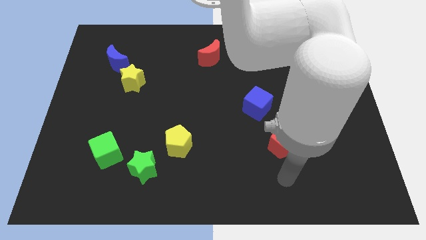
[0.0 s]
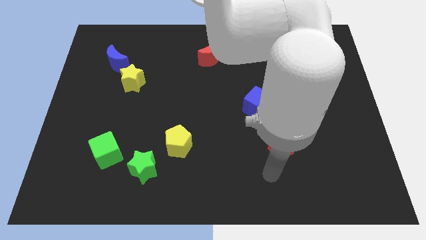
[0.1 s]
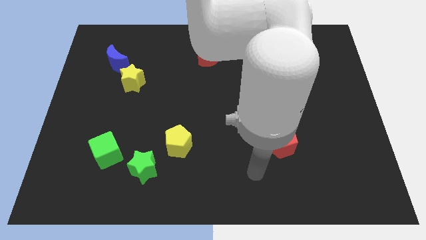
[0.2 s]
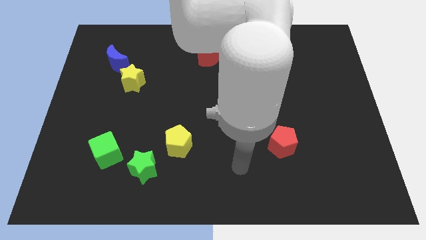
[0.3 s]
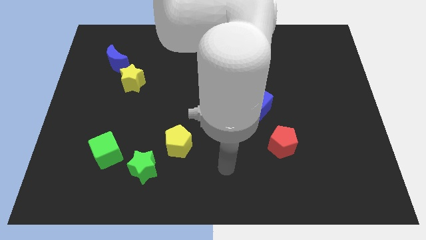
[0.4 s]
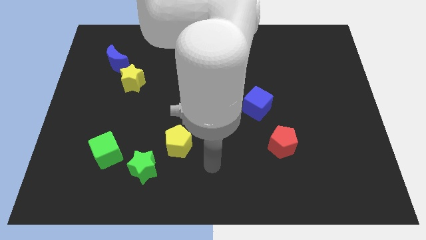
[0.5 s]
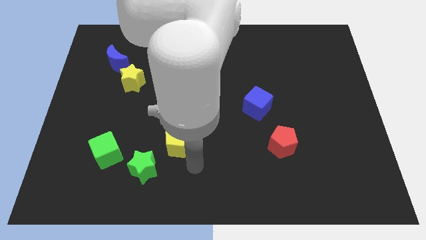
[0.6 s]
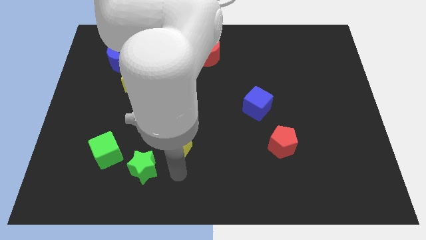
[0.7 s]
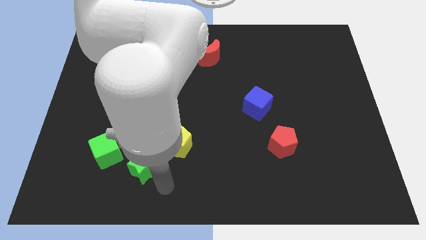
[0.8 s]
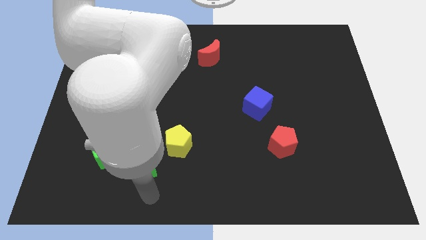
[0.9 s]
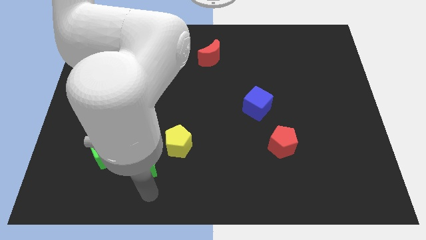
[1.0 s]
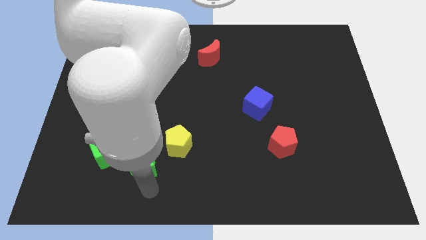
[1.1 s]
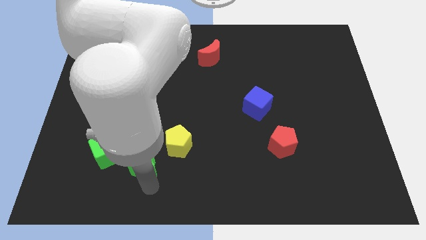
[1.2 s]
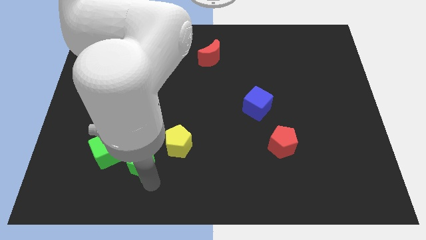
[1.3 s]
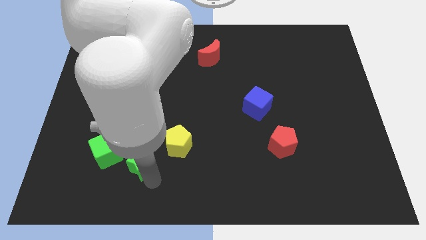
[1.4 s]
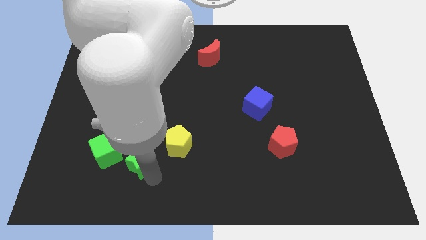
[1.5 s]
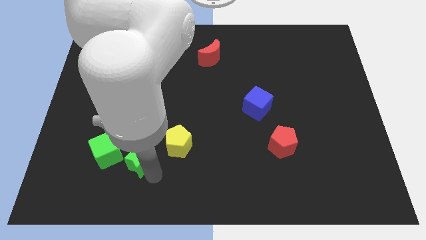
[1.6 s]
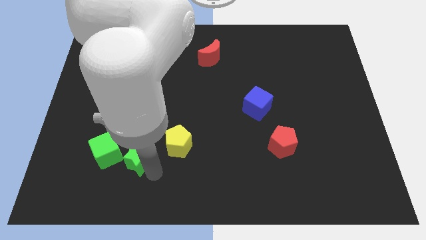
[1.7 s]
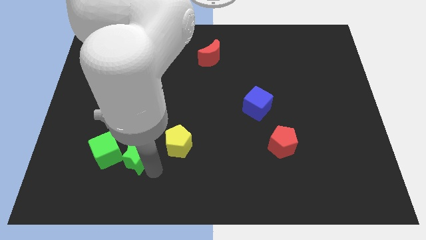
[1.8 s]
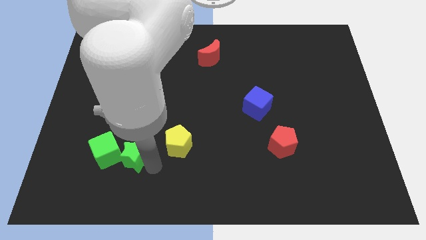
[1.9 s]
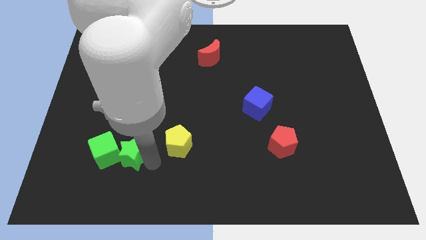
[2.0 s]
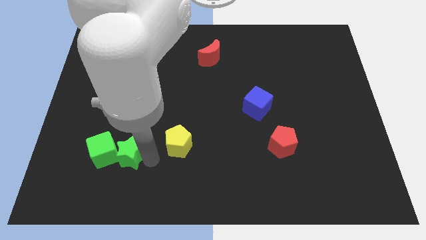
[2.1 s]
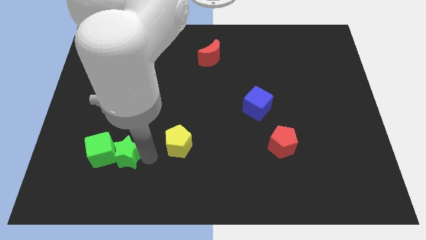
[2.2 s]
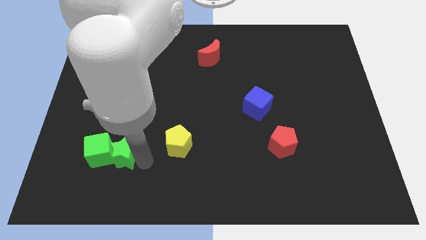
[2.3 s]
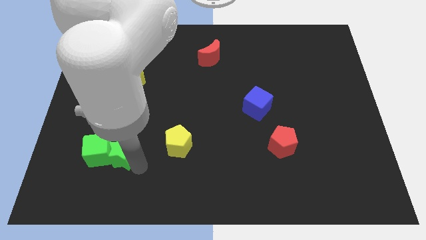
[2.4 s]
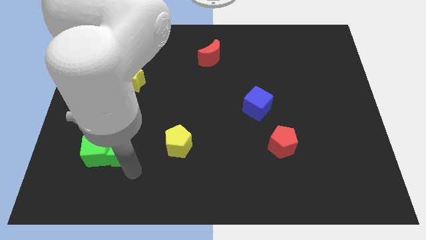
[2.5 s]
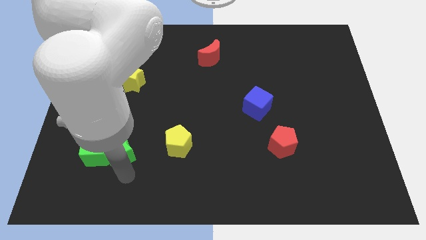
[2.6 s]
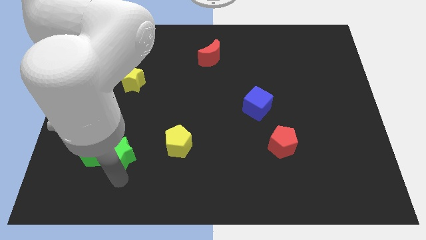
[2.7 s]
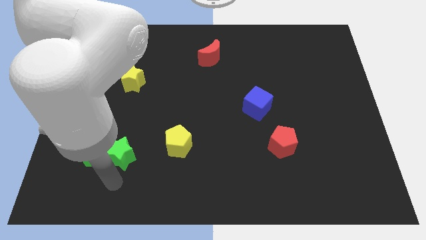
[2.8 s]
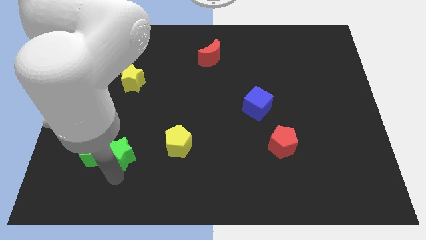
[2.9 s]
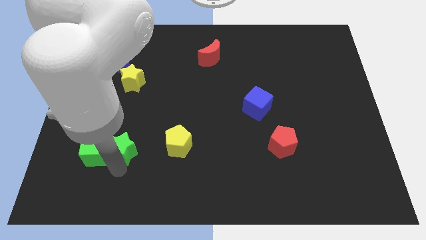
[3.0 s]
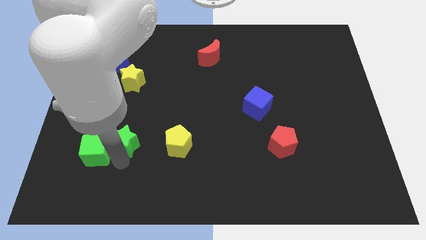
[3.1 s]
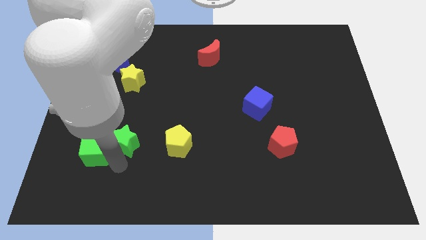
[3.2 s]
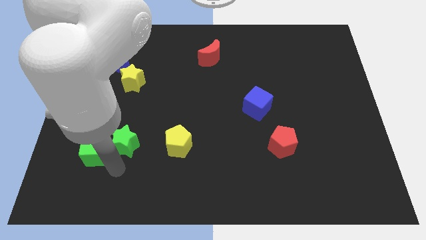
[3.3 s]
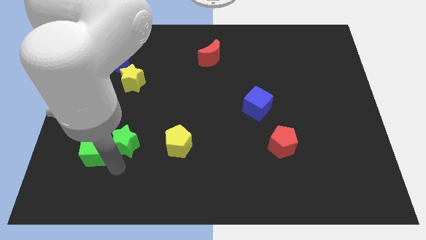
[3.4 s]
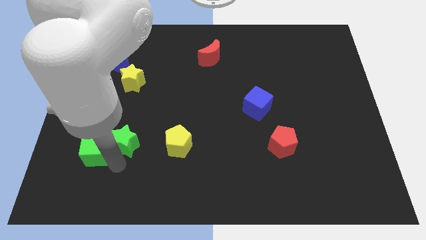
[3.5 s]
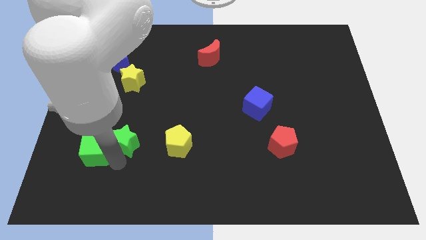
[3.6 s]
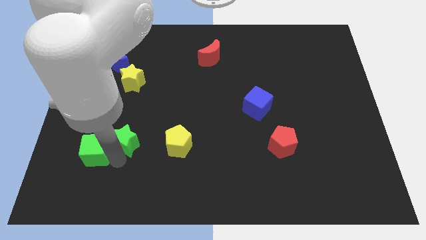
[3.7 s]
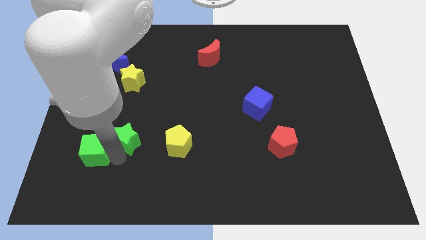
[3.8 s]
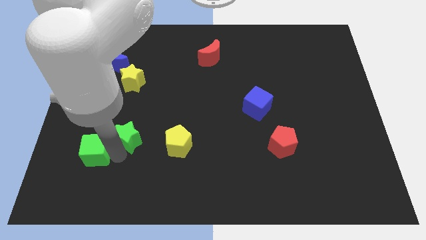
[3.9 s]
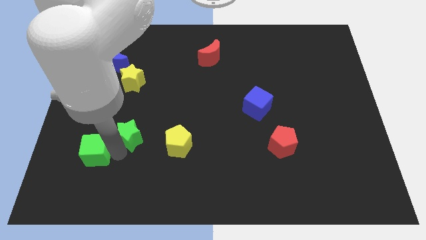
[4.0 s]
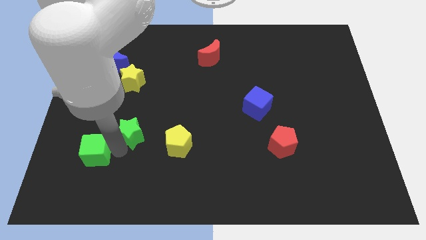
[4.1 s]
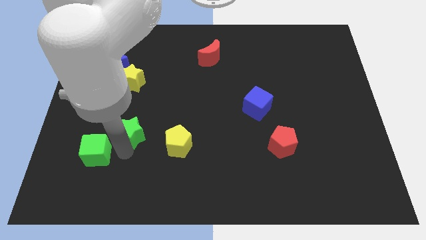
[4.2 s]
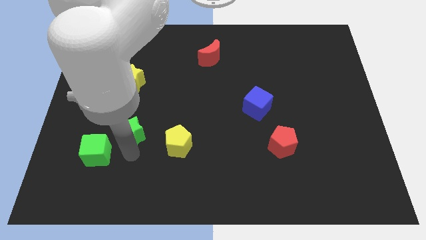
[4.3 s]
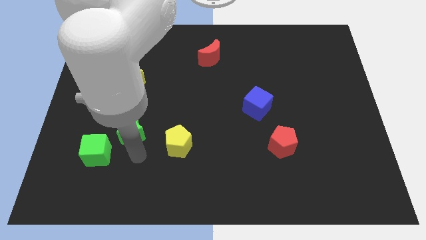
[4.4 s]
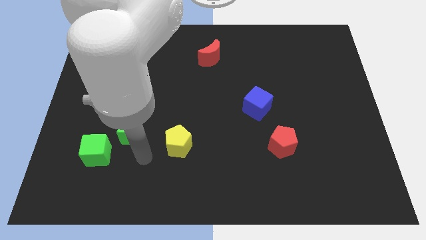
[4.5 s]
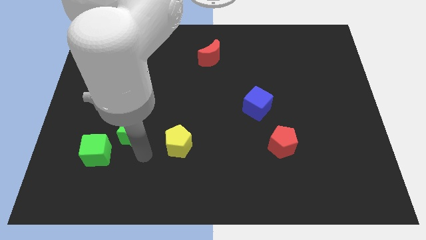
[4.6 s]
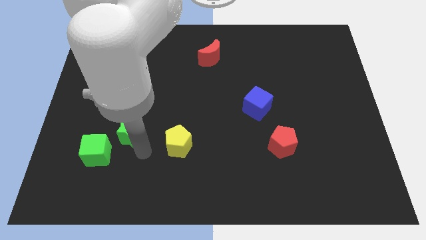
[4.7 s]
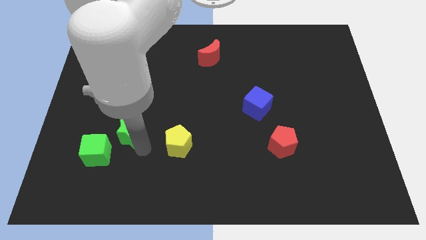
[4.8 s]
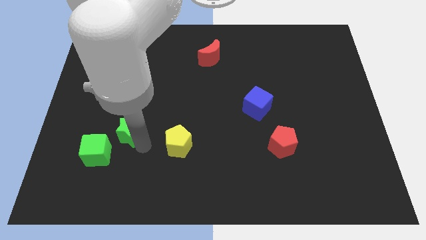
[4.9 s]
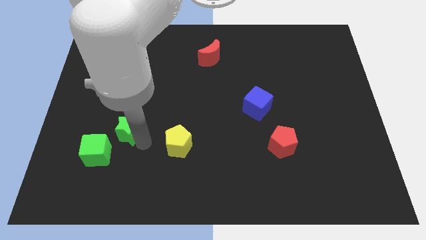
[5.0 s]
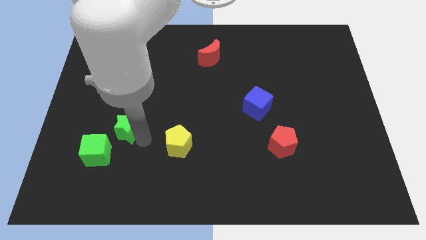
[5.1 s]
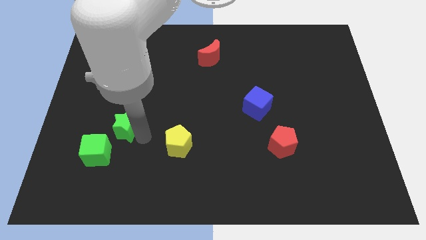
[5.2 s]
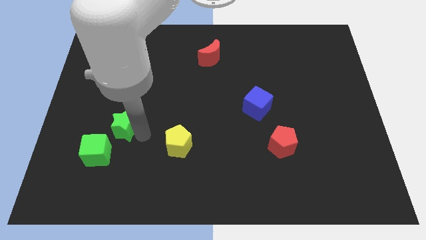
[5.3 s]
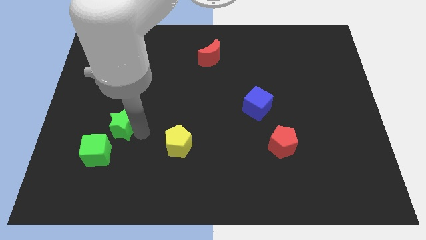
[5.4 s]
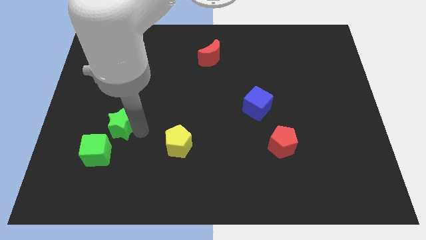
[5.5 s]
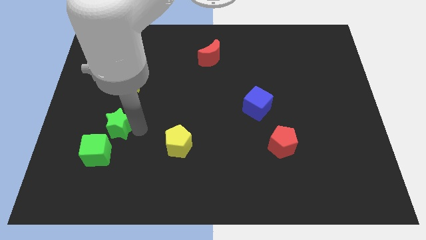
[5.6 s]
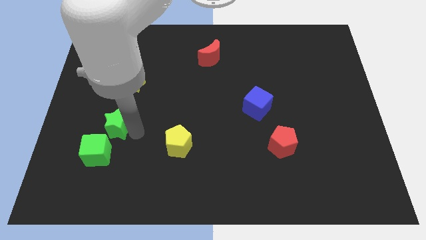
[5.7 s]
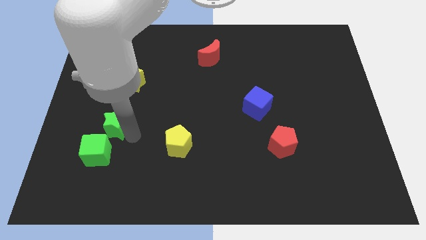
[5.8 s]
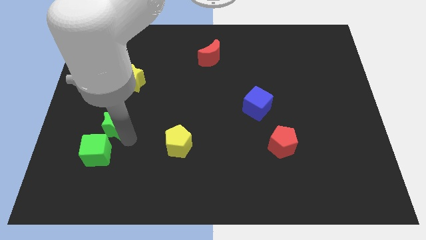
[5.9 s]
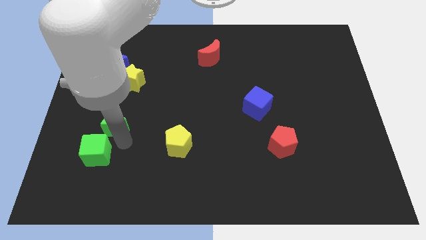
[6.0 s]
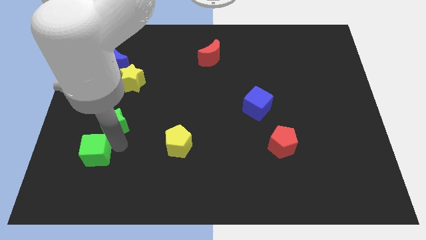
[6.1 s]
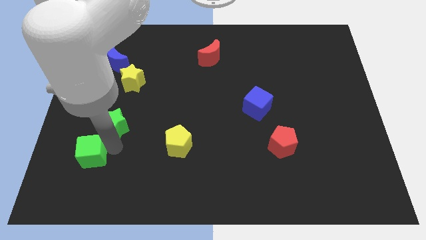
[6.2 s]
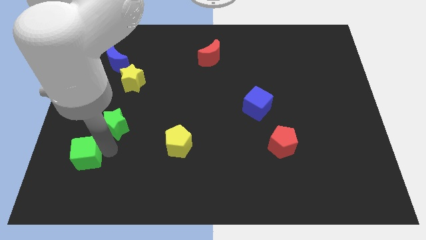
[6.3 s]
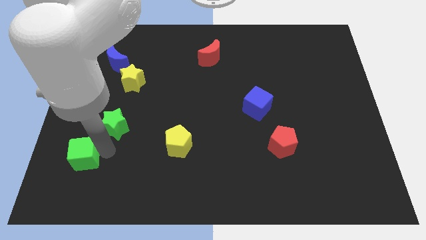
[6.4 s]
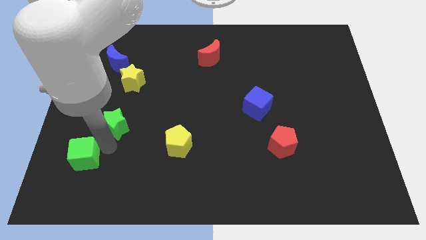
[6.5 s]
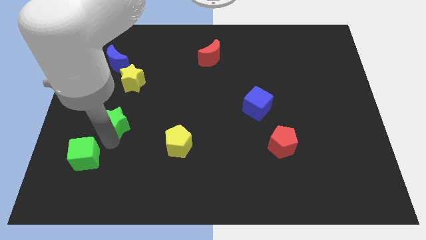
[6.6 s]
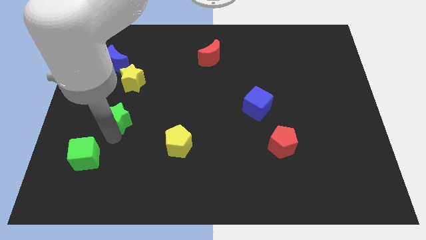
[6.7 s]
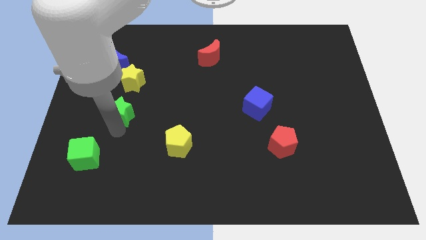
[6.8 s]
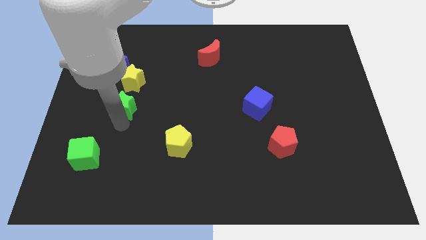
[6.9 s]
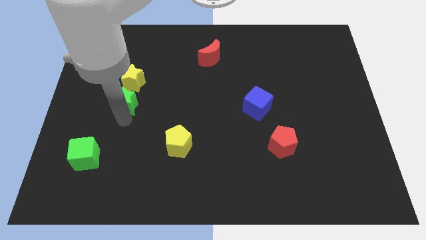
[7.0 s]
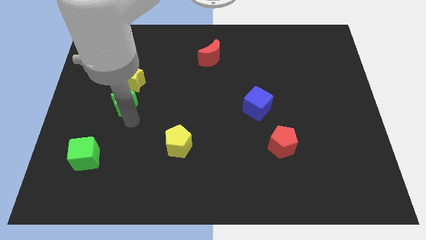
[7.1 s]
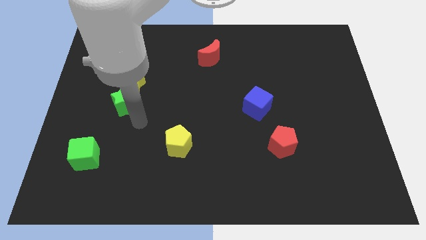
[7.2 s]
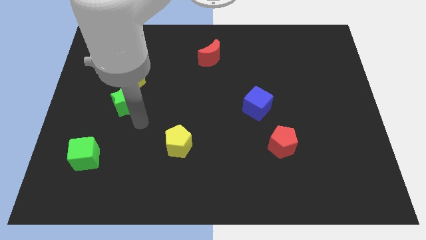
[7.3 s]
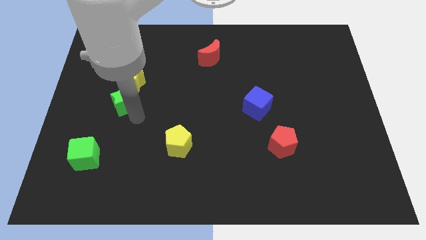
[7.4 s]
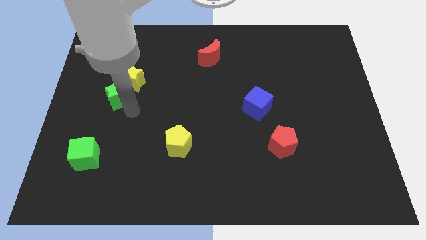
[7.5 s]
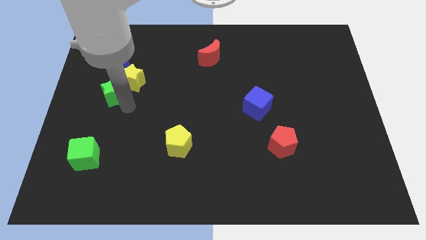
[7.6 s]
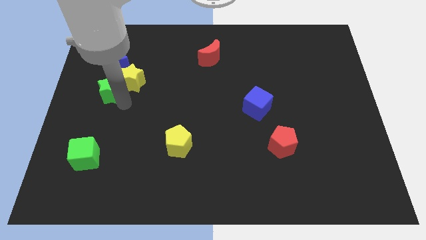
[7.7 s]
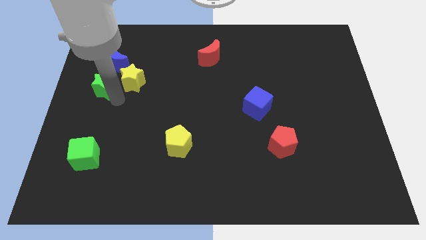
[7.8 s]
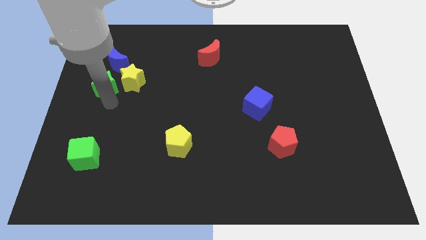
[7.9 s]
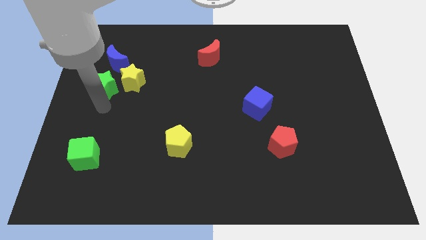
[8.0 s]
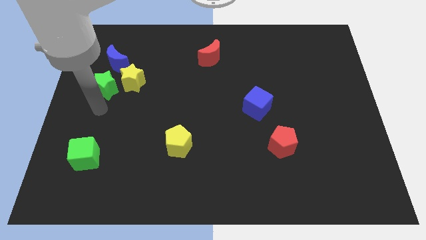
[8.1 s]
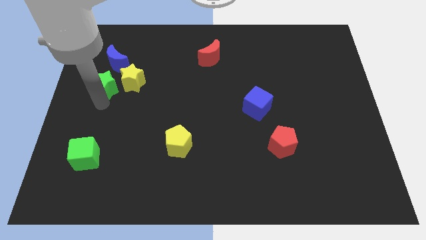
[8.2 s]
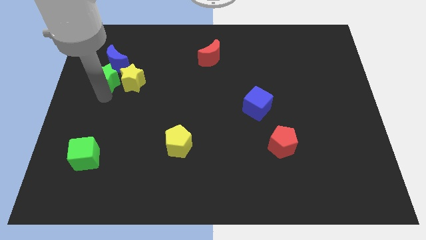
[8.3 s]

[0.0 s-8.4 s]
push the green star close to the blue moon
